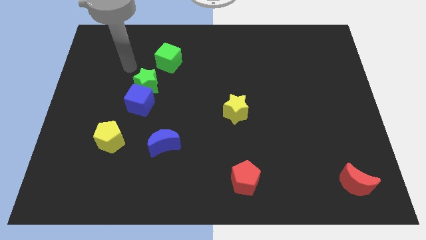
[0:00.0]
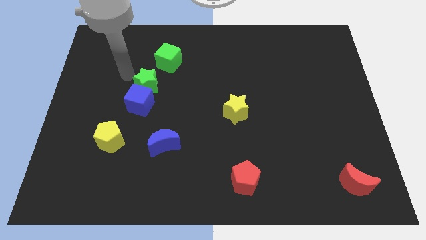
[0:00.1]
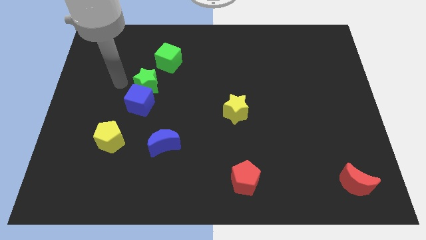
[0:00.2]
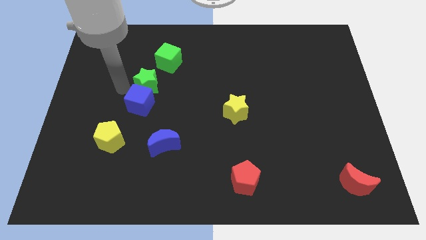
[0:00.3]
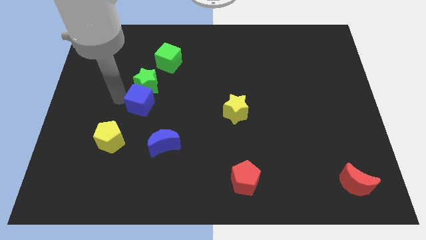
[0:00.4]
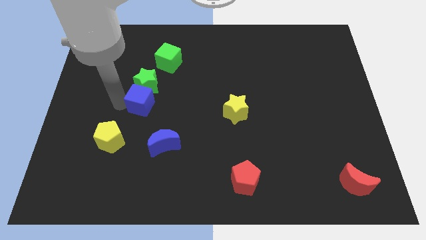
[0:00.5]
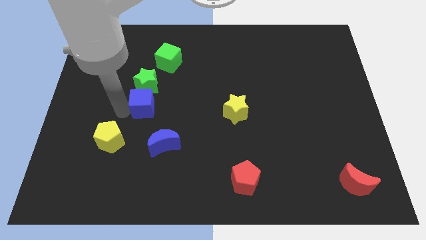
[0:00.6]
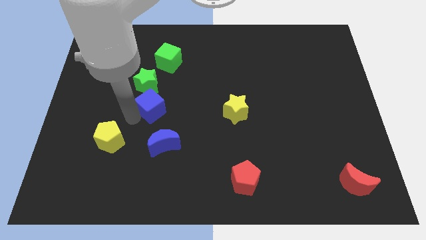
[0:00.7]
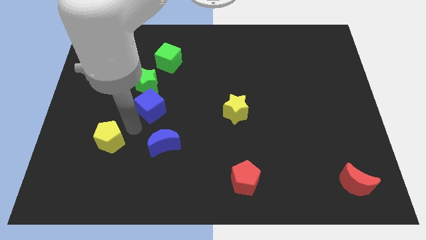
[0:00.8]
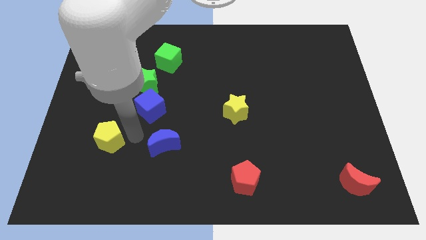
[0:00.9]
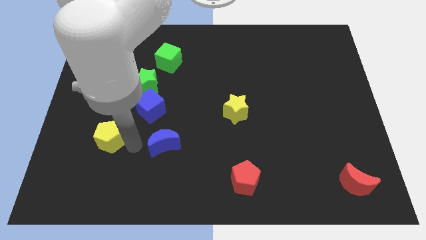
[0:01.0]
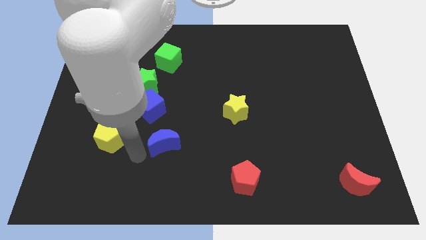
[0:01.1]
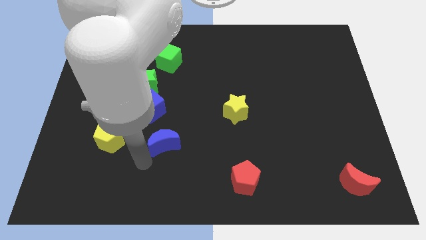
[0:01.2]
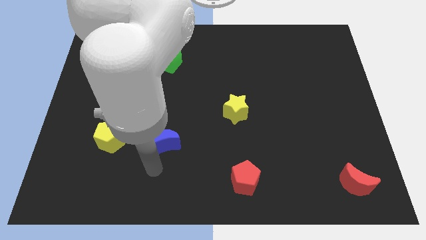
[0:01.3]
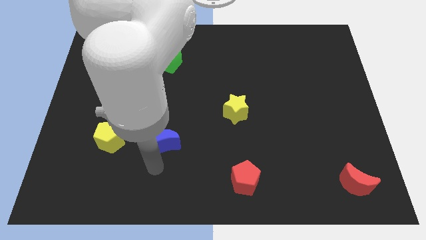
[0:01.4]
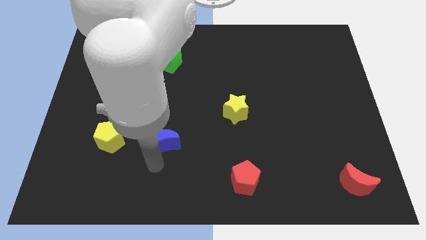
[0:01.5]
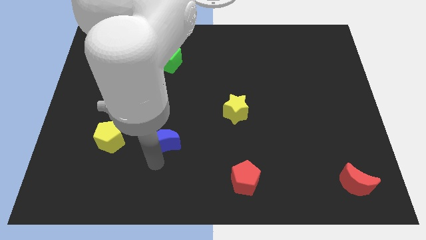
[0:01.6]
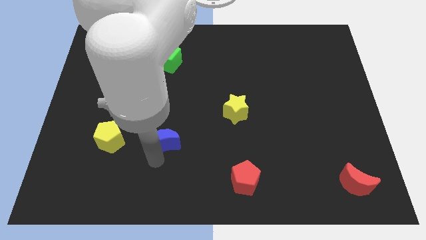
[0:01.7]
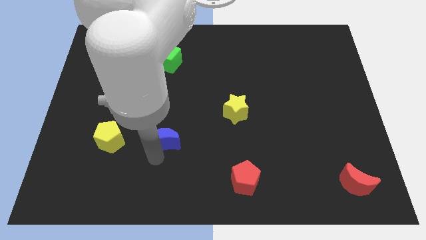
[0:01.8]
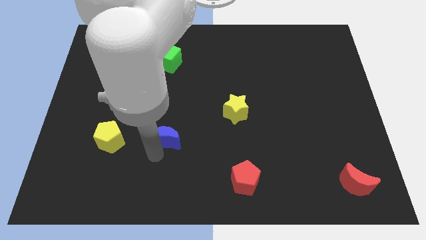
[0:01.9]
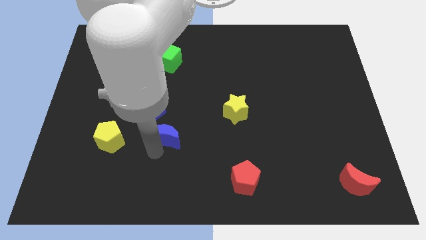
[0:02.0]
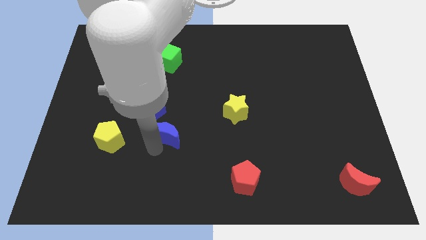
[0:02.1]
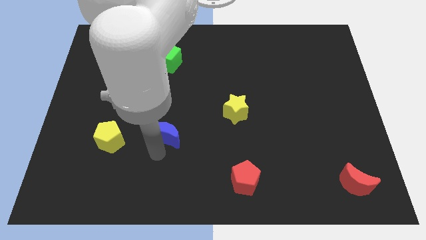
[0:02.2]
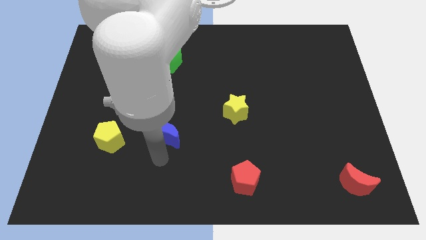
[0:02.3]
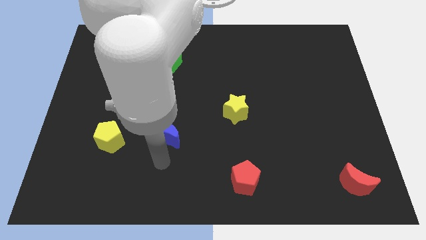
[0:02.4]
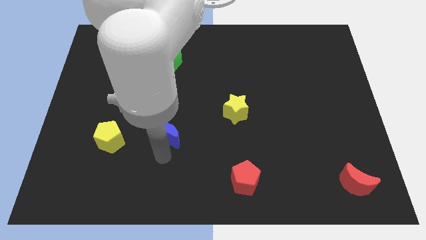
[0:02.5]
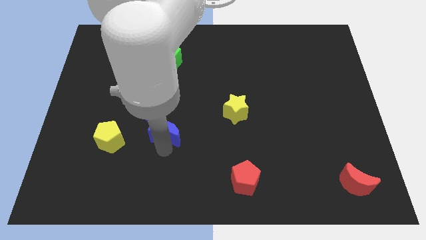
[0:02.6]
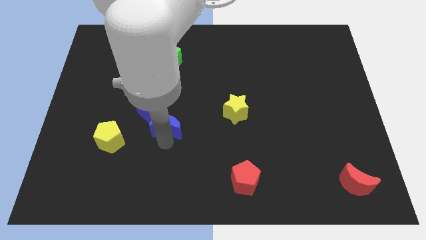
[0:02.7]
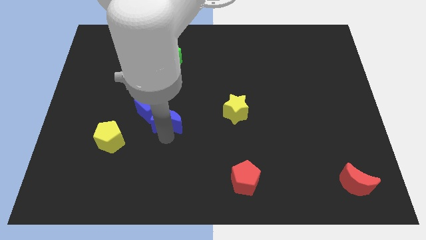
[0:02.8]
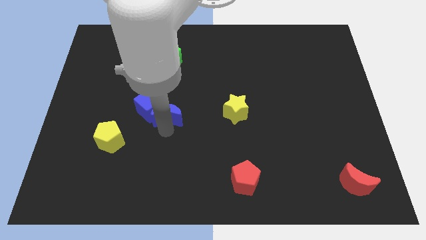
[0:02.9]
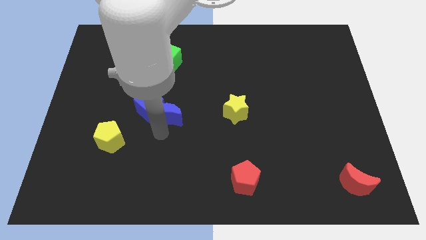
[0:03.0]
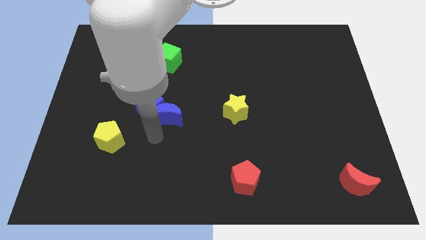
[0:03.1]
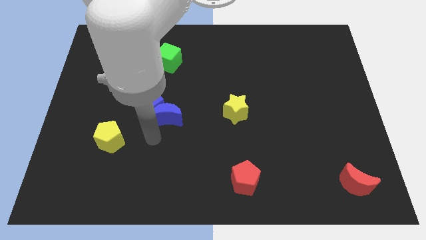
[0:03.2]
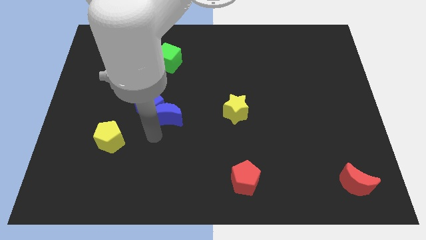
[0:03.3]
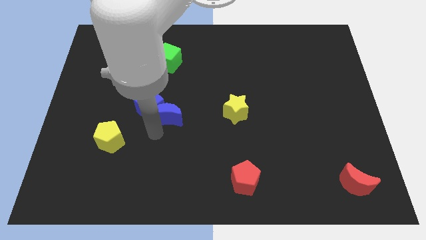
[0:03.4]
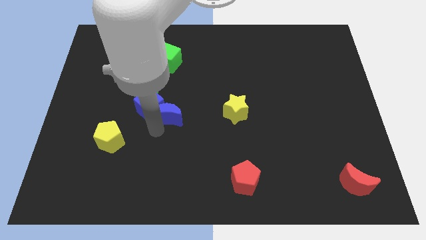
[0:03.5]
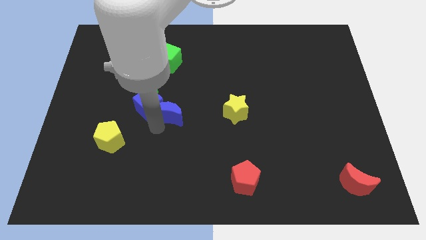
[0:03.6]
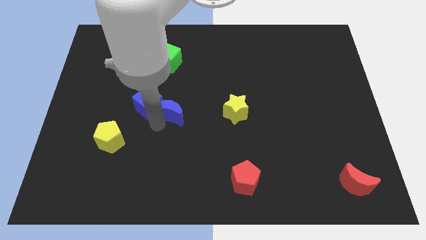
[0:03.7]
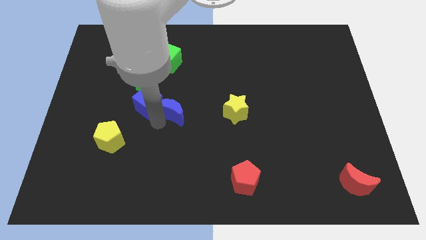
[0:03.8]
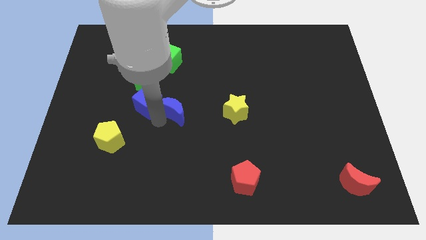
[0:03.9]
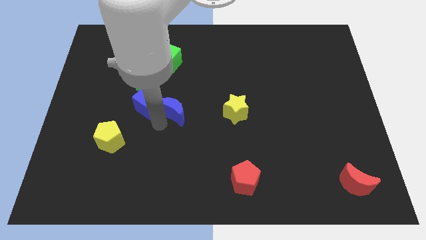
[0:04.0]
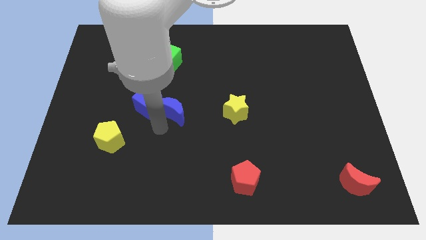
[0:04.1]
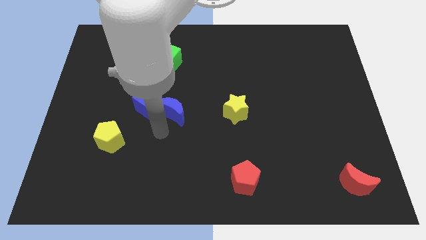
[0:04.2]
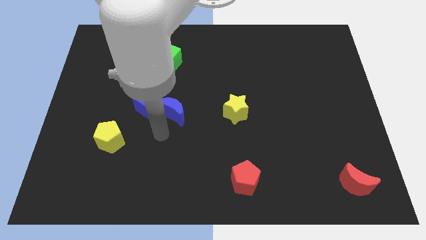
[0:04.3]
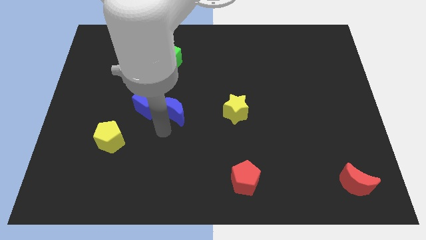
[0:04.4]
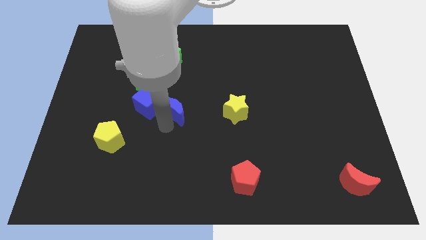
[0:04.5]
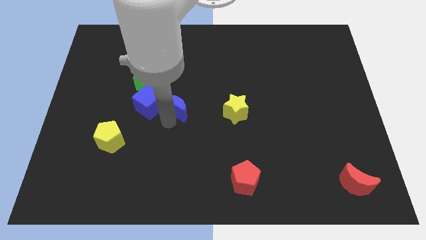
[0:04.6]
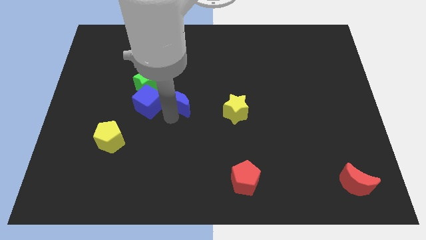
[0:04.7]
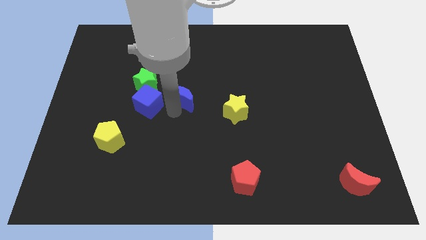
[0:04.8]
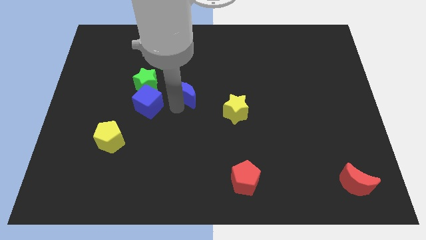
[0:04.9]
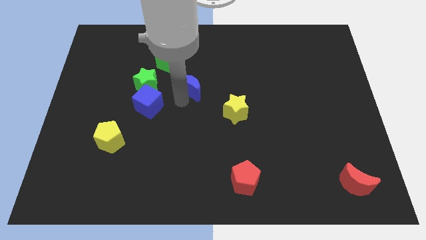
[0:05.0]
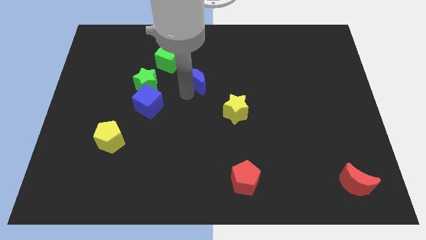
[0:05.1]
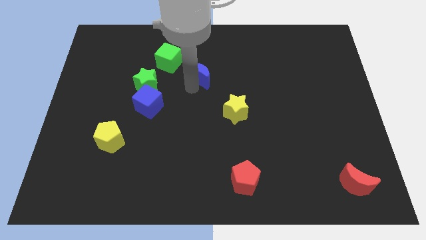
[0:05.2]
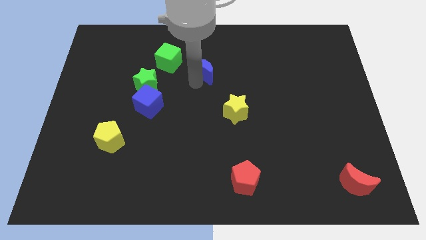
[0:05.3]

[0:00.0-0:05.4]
push the blue moon right of the green cube

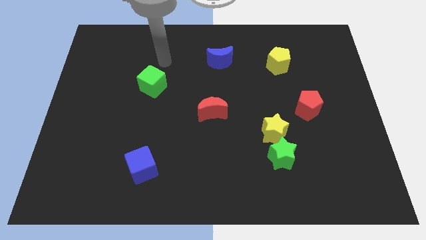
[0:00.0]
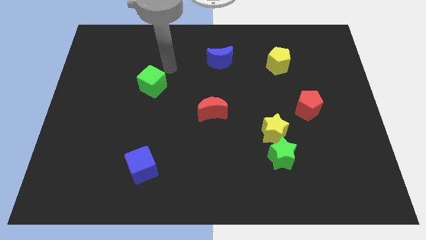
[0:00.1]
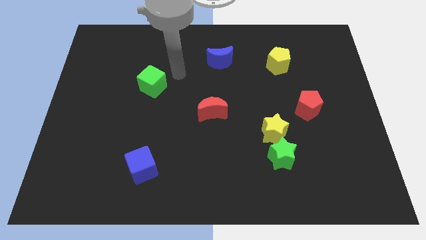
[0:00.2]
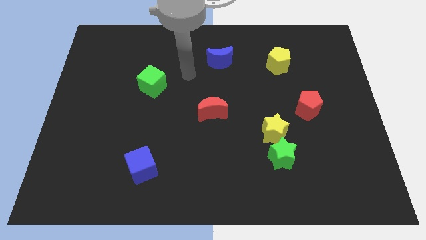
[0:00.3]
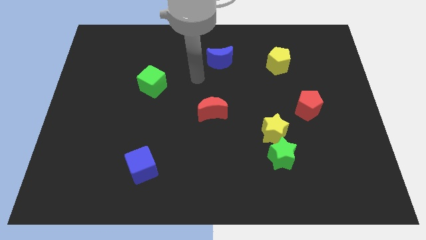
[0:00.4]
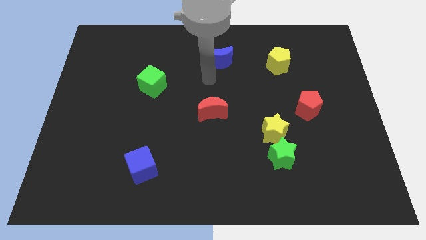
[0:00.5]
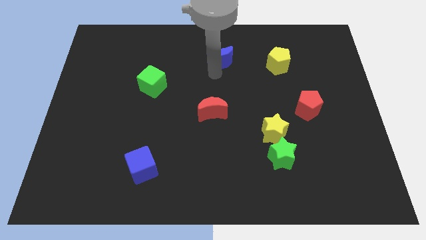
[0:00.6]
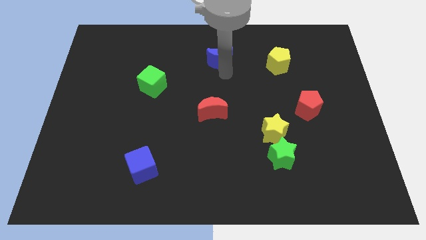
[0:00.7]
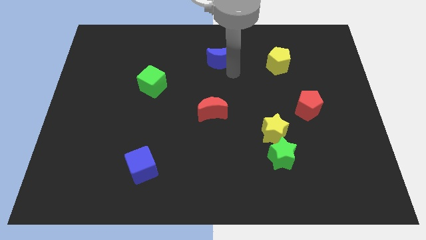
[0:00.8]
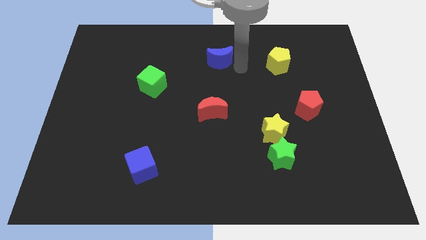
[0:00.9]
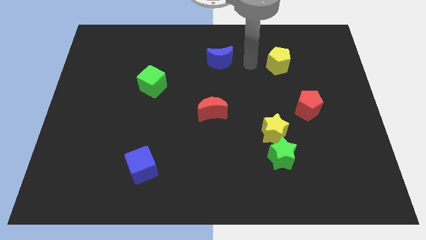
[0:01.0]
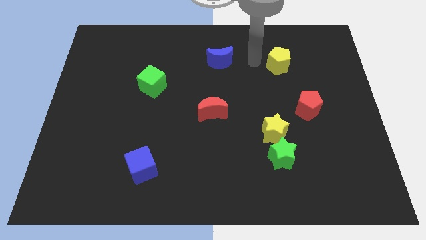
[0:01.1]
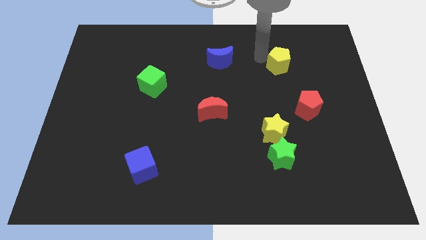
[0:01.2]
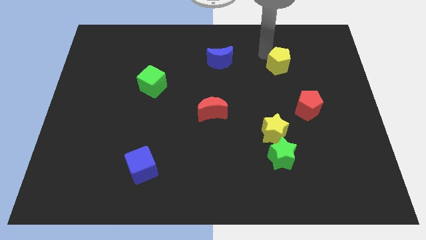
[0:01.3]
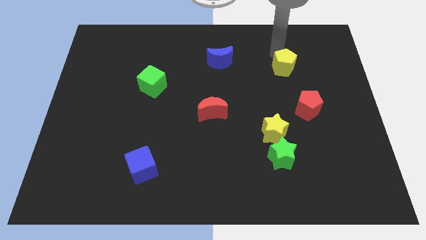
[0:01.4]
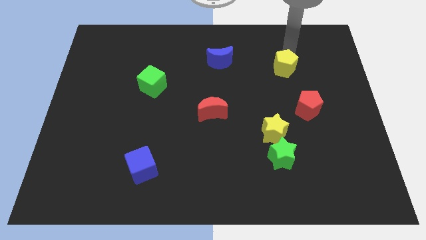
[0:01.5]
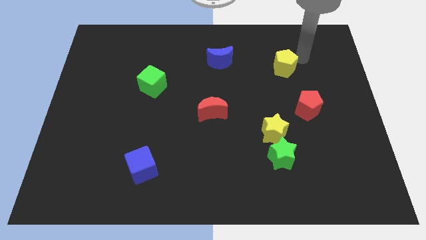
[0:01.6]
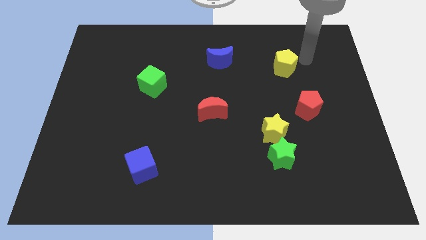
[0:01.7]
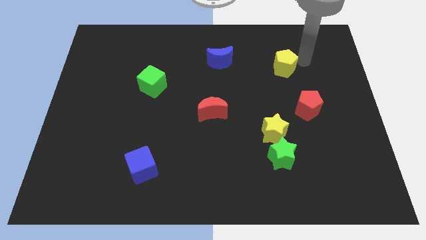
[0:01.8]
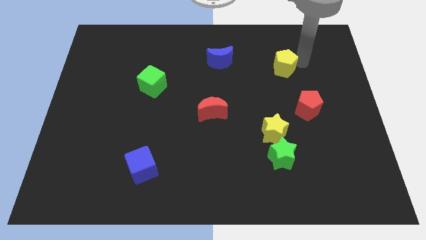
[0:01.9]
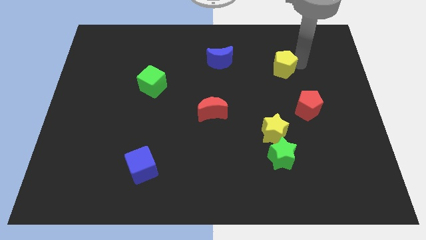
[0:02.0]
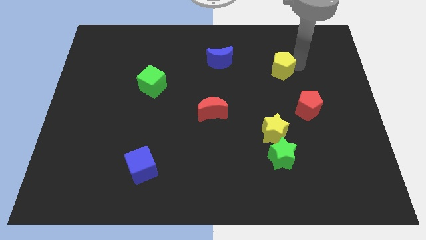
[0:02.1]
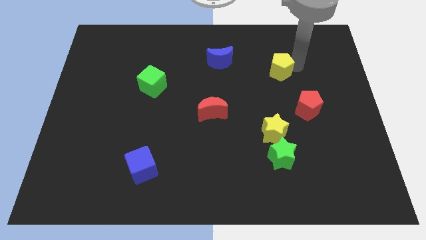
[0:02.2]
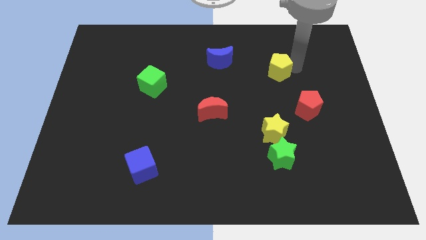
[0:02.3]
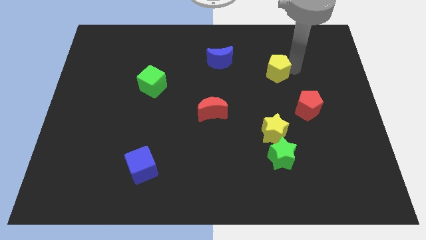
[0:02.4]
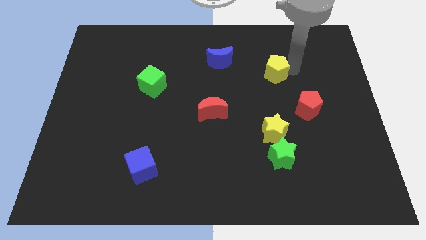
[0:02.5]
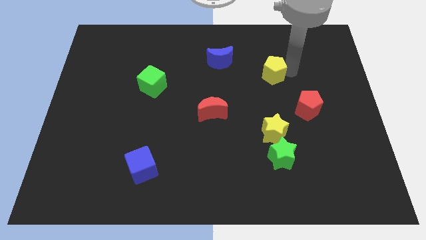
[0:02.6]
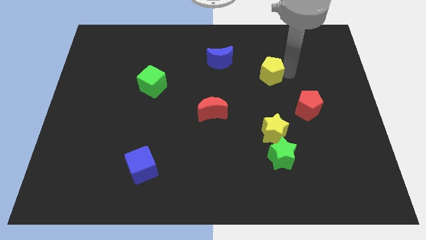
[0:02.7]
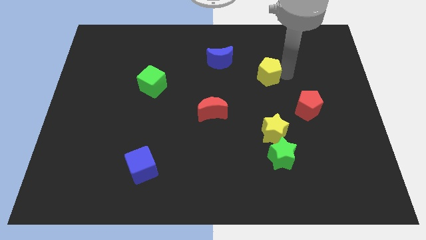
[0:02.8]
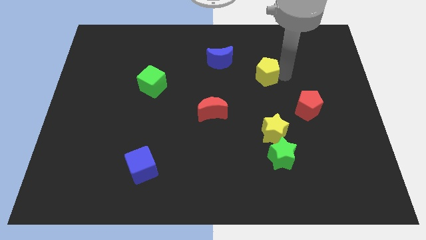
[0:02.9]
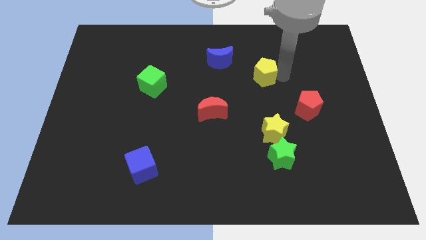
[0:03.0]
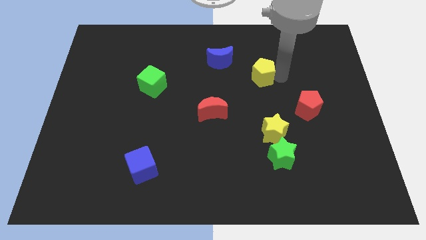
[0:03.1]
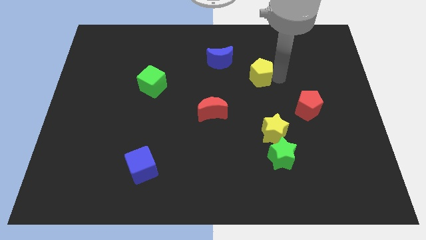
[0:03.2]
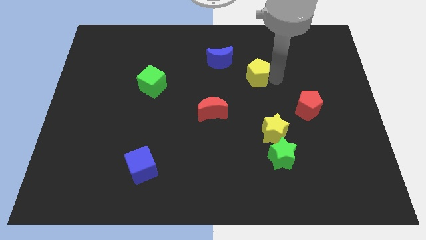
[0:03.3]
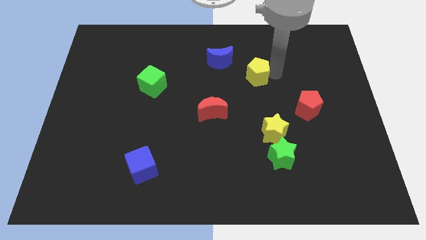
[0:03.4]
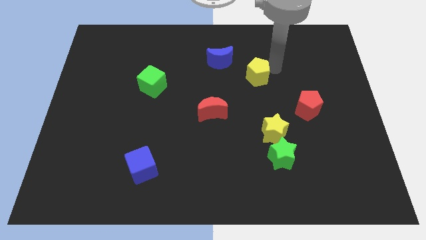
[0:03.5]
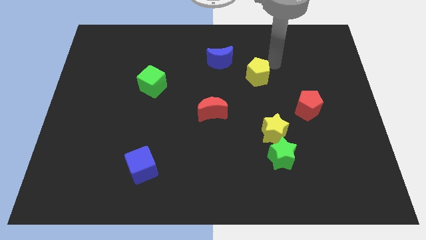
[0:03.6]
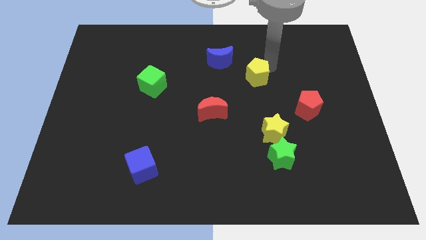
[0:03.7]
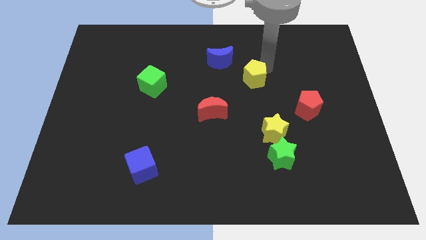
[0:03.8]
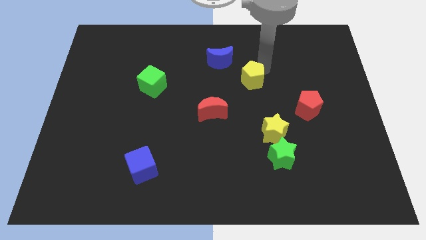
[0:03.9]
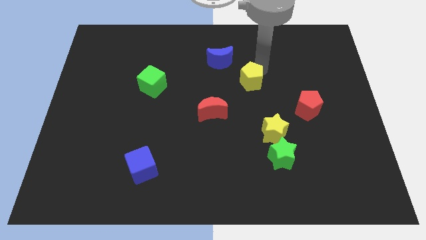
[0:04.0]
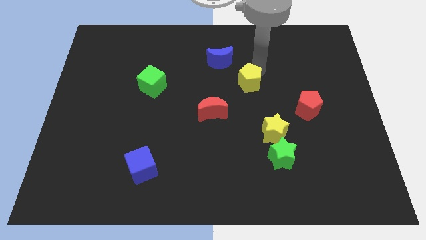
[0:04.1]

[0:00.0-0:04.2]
move the yellow pentagon to the top right side of the red moon
